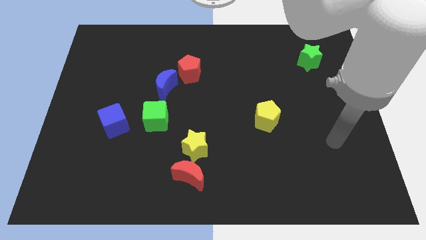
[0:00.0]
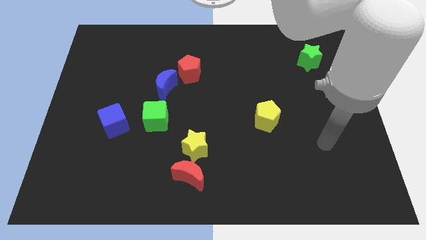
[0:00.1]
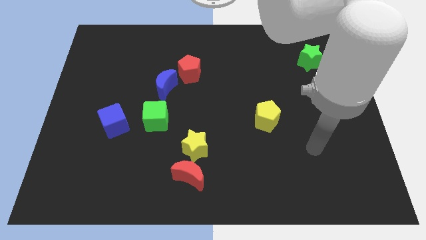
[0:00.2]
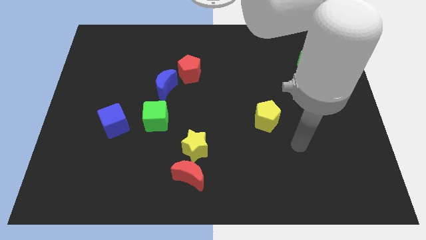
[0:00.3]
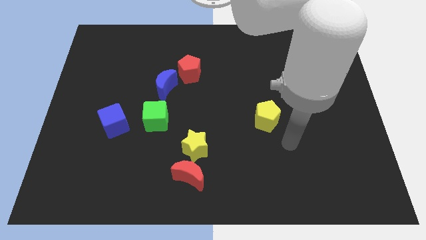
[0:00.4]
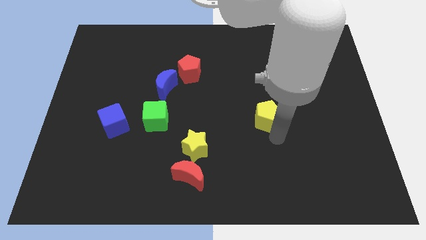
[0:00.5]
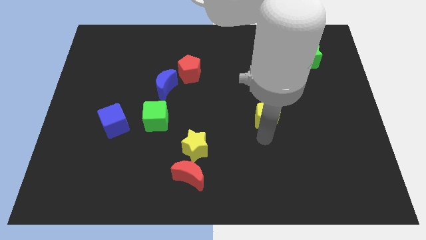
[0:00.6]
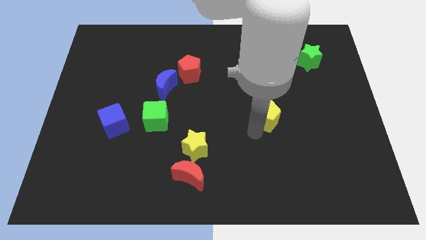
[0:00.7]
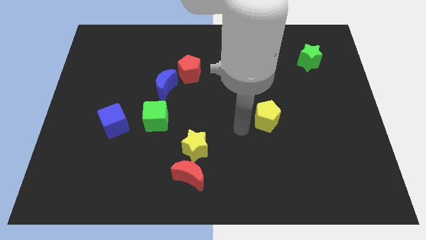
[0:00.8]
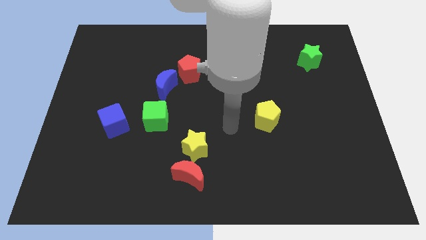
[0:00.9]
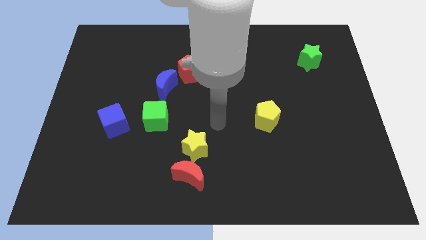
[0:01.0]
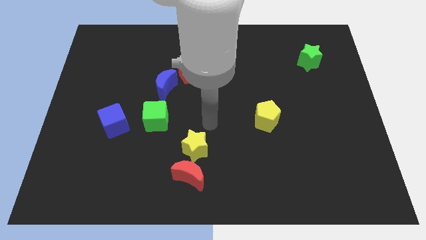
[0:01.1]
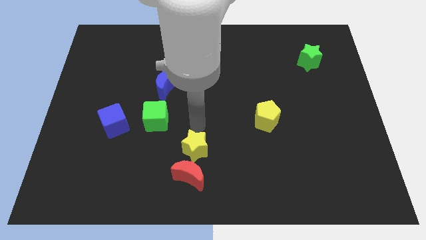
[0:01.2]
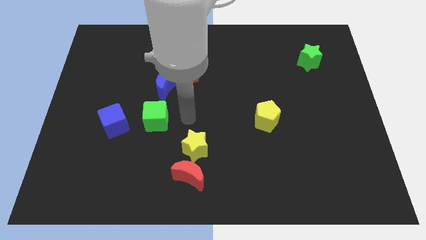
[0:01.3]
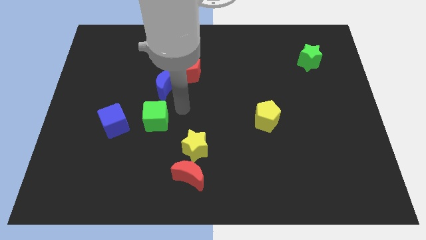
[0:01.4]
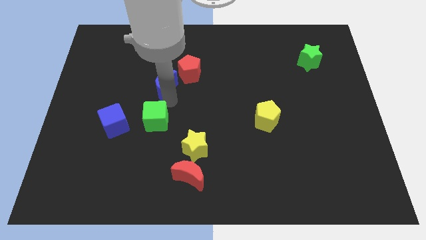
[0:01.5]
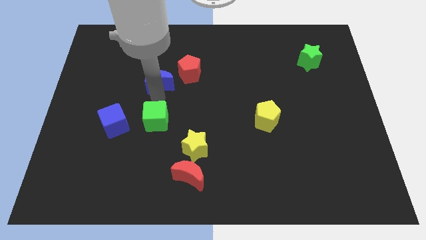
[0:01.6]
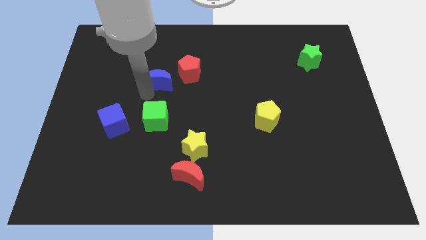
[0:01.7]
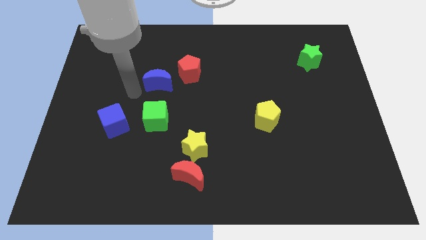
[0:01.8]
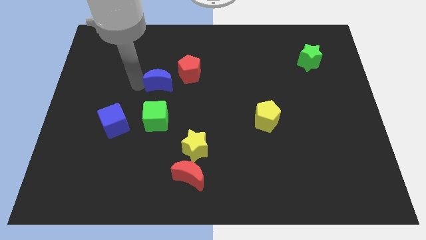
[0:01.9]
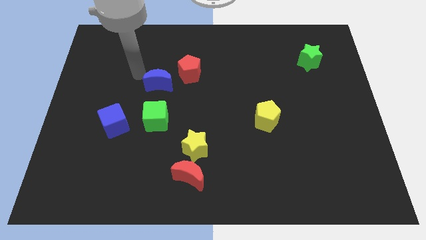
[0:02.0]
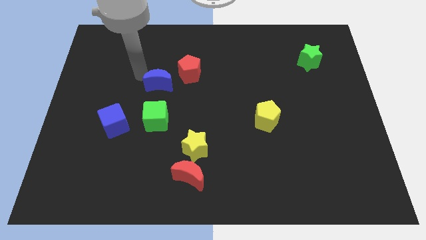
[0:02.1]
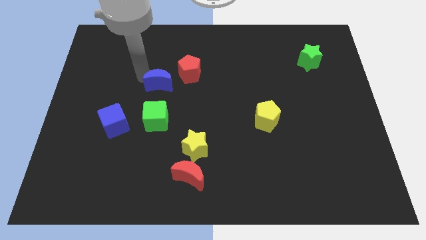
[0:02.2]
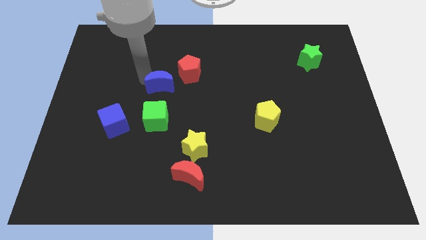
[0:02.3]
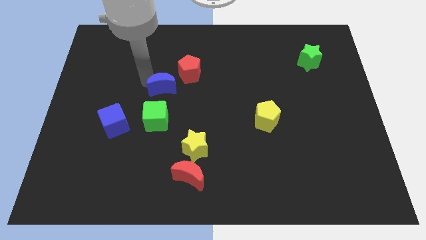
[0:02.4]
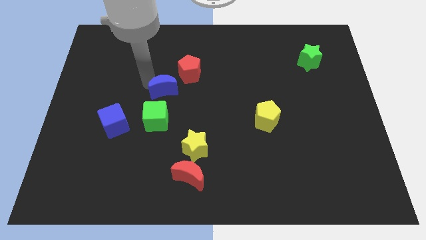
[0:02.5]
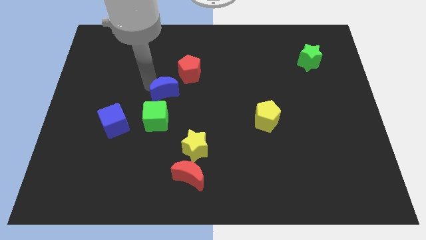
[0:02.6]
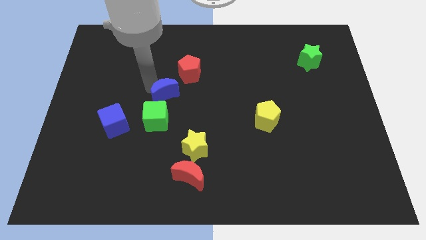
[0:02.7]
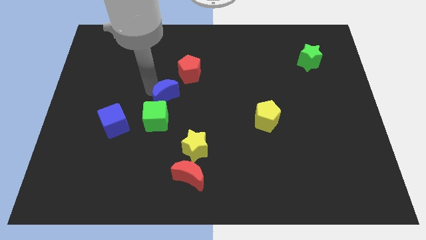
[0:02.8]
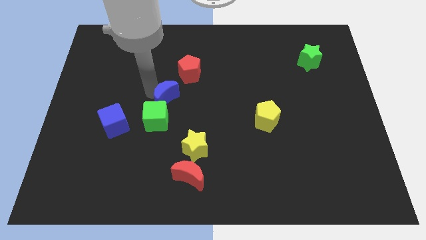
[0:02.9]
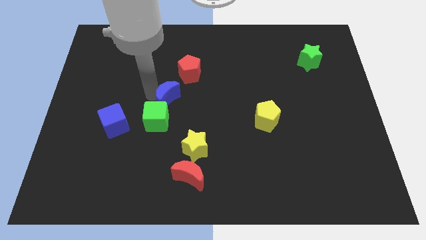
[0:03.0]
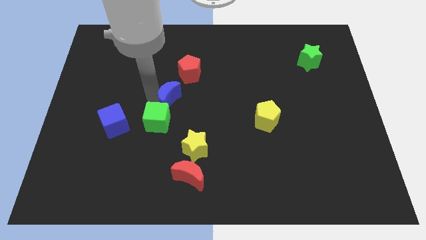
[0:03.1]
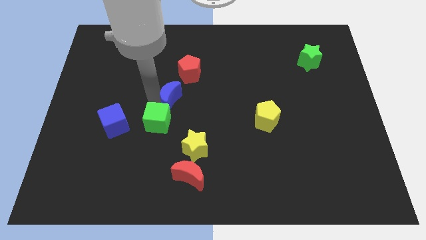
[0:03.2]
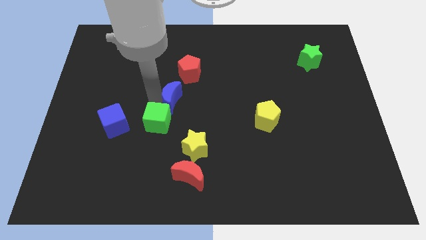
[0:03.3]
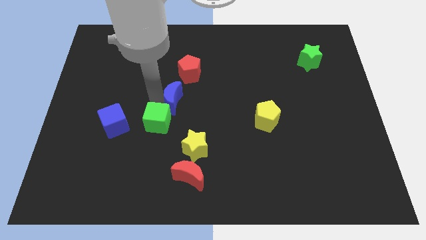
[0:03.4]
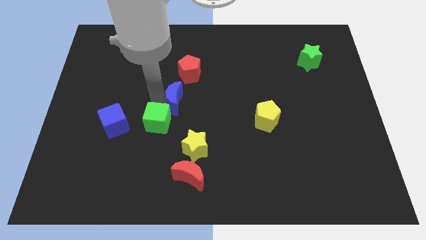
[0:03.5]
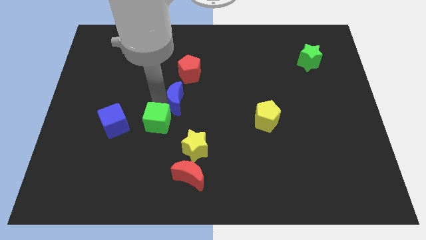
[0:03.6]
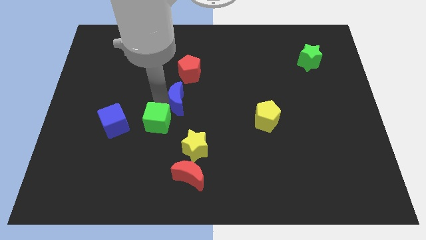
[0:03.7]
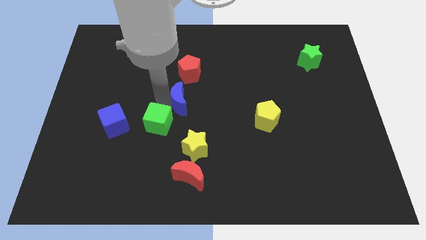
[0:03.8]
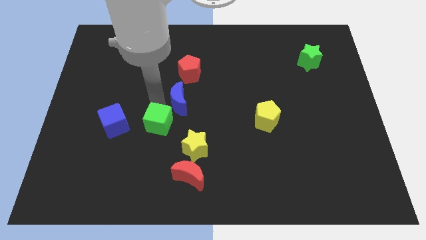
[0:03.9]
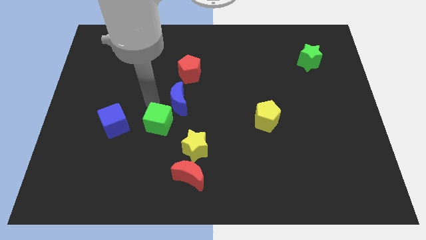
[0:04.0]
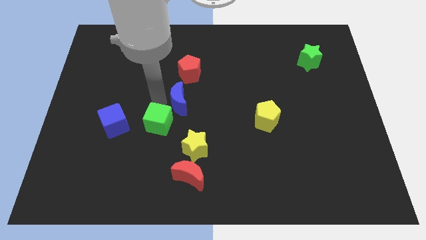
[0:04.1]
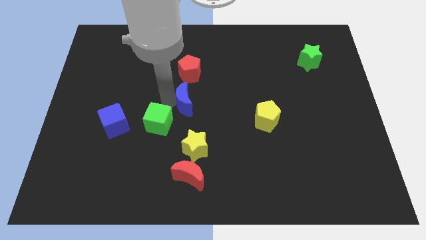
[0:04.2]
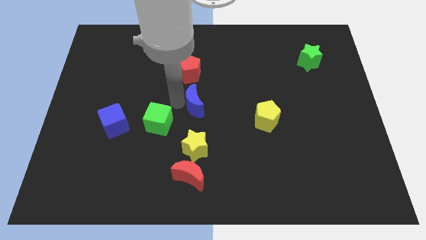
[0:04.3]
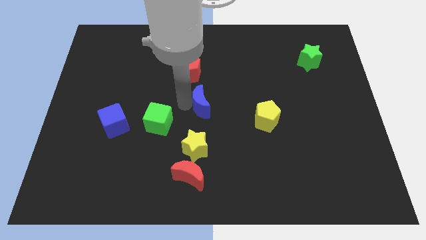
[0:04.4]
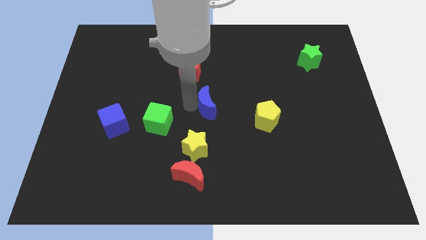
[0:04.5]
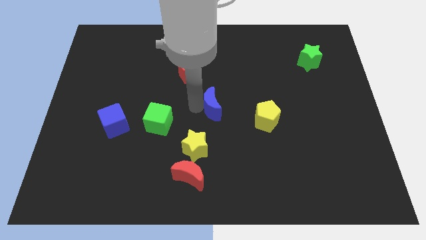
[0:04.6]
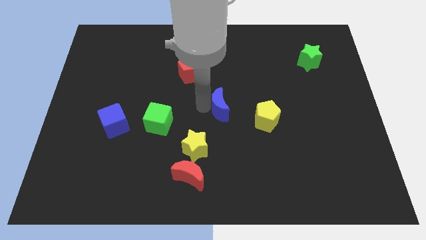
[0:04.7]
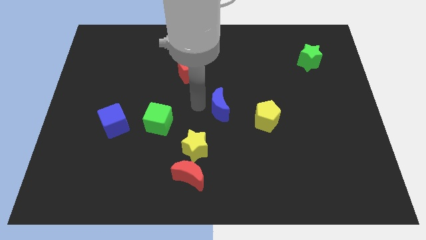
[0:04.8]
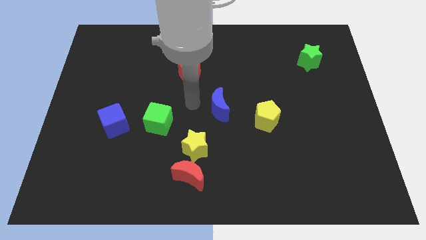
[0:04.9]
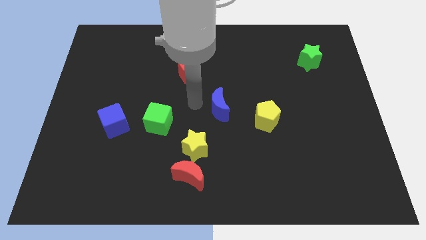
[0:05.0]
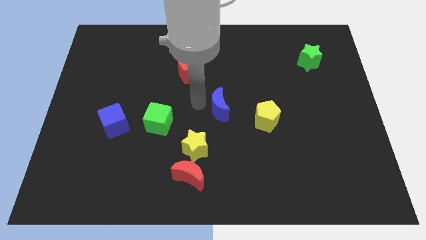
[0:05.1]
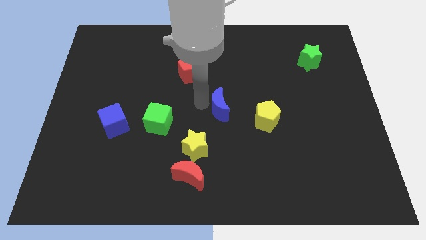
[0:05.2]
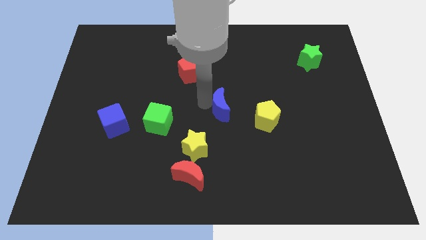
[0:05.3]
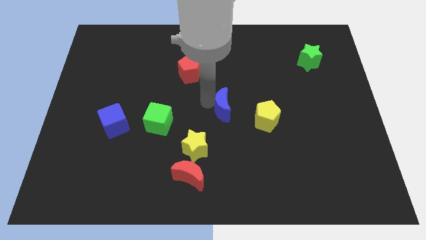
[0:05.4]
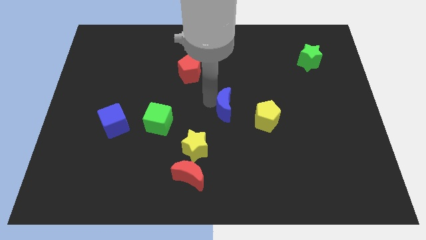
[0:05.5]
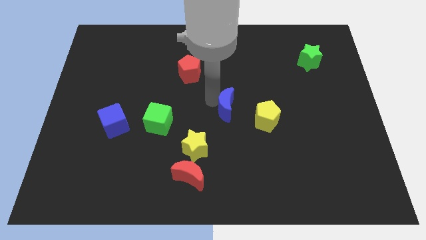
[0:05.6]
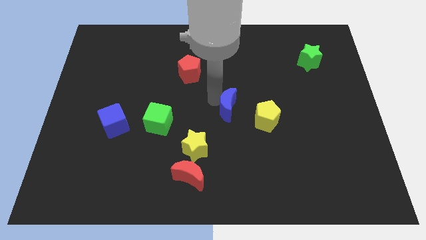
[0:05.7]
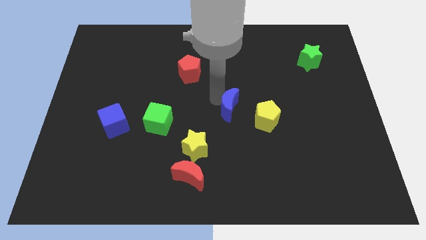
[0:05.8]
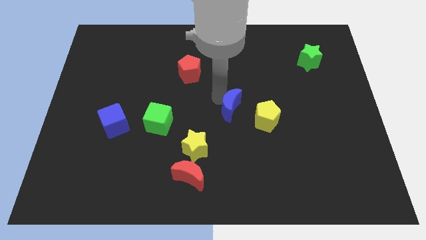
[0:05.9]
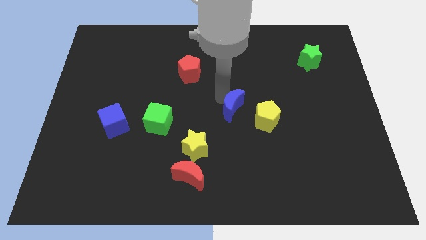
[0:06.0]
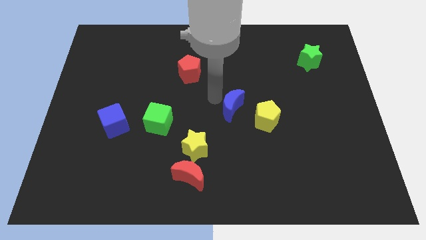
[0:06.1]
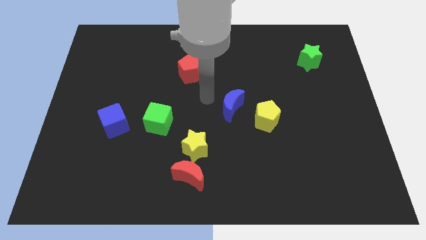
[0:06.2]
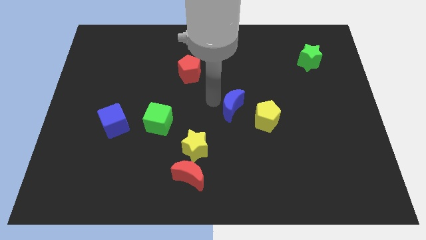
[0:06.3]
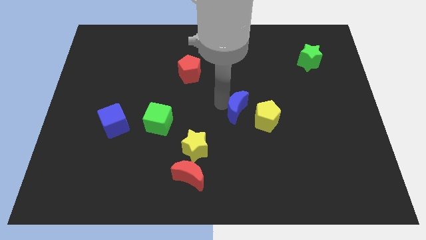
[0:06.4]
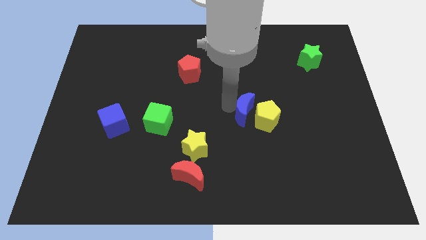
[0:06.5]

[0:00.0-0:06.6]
move the blue moon close to the yellow pentagon

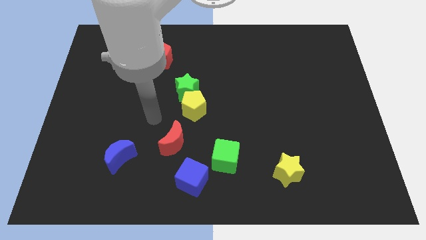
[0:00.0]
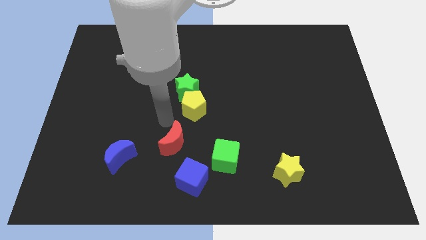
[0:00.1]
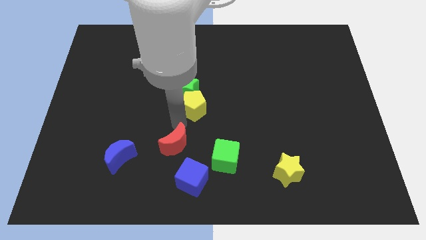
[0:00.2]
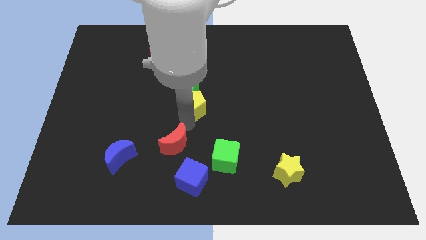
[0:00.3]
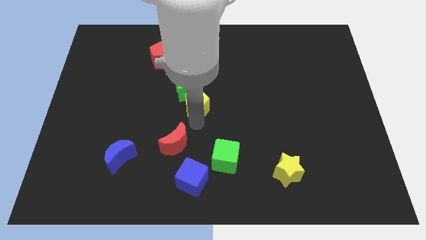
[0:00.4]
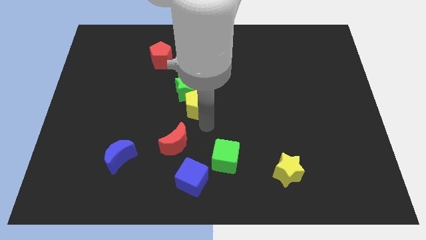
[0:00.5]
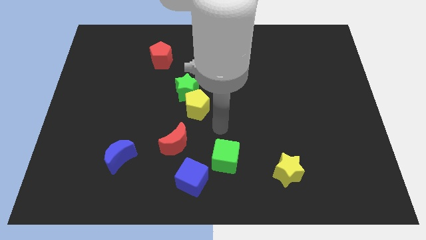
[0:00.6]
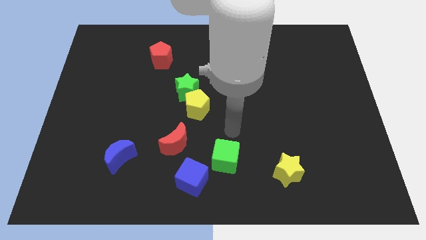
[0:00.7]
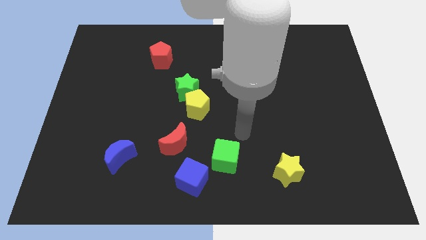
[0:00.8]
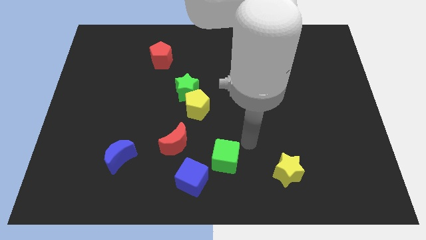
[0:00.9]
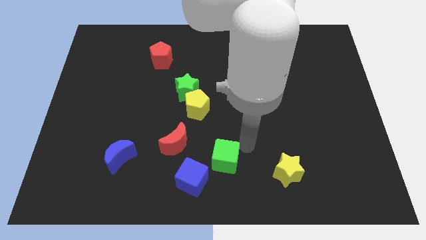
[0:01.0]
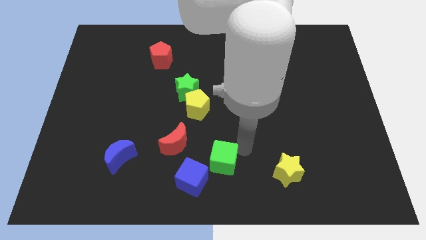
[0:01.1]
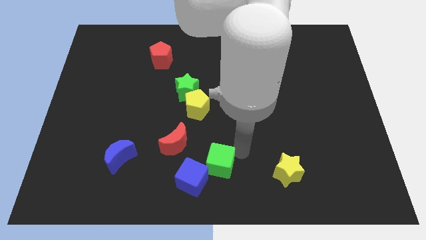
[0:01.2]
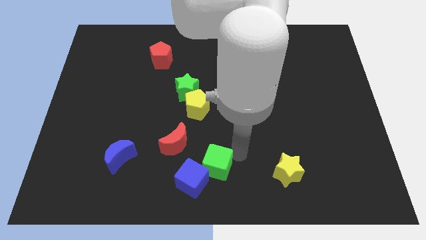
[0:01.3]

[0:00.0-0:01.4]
move the green cube close to the blue cube
